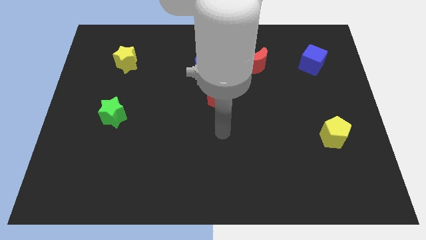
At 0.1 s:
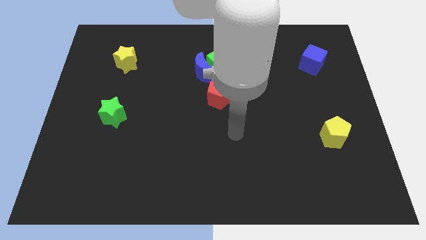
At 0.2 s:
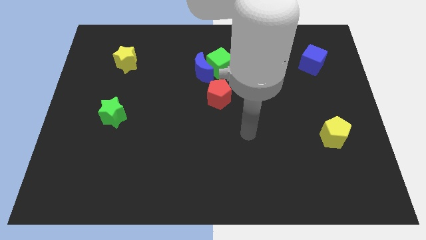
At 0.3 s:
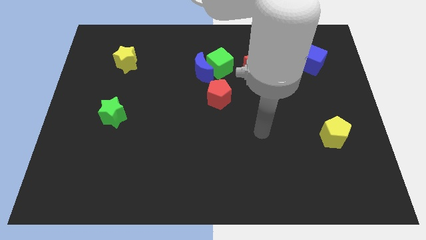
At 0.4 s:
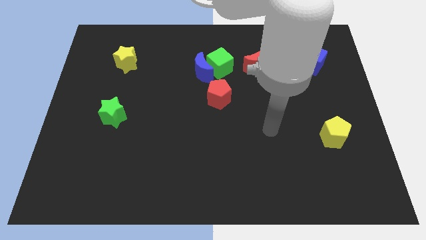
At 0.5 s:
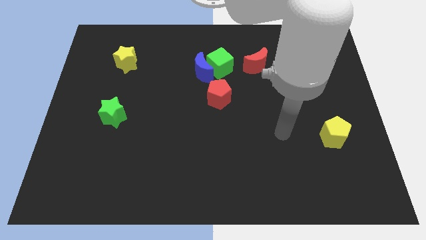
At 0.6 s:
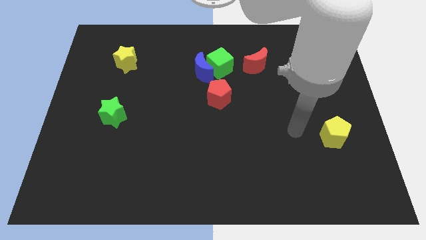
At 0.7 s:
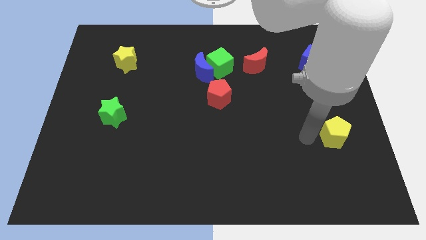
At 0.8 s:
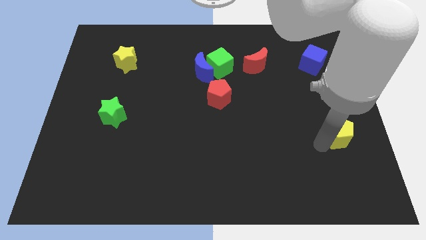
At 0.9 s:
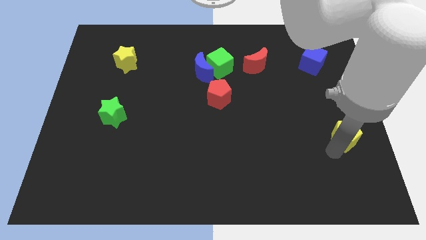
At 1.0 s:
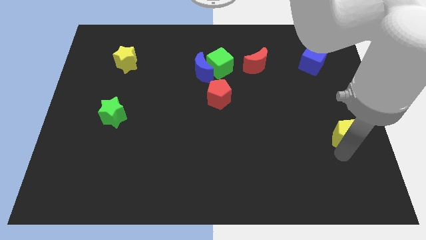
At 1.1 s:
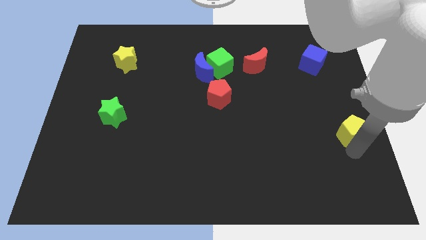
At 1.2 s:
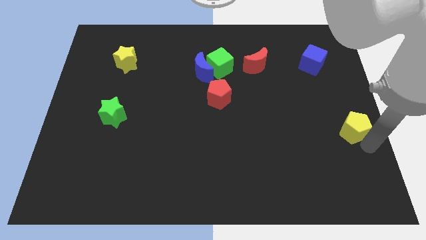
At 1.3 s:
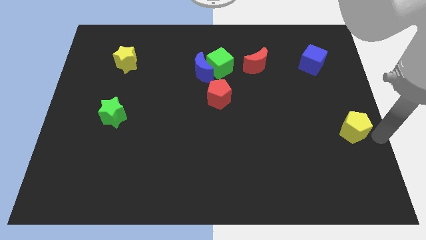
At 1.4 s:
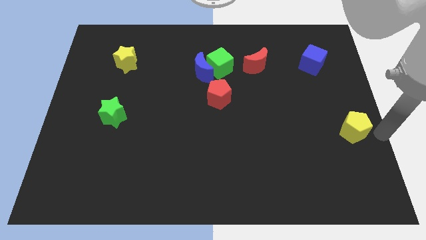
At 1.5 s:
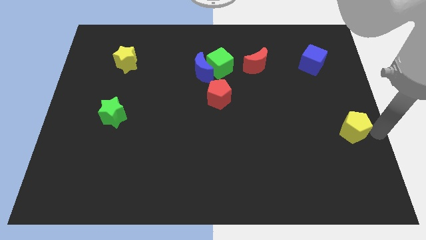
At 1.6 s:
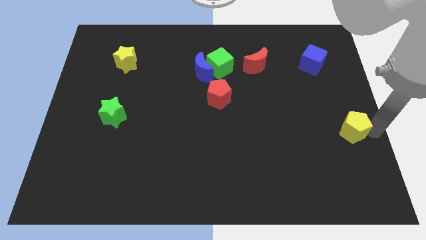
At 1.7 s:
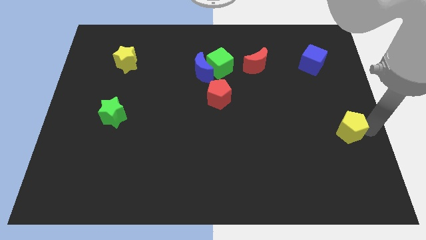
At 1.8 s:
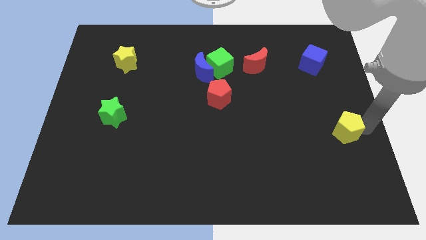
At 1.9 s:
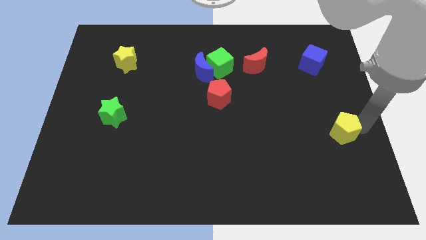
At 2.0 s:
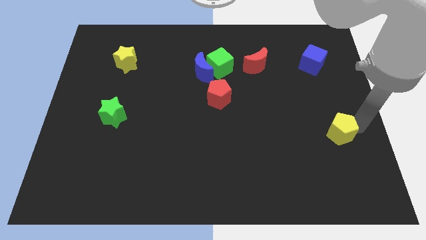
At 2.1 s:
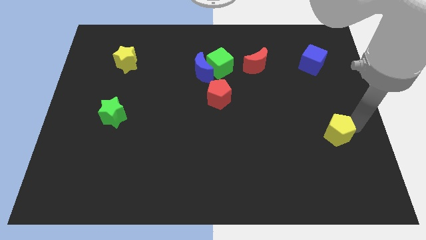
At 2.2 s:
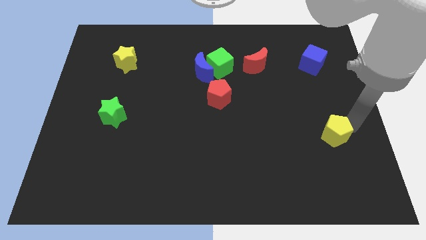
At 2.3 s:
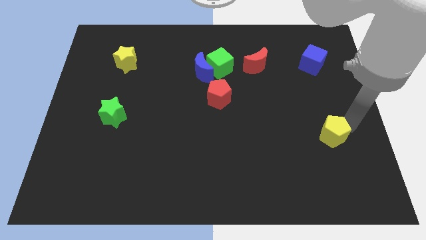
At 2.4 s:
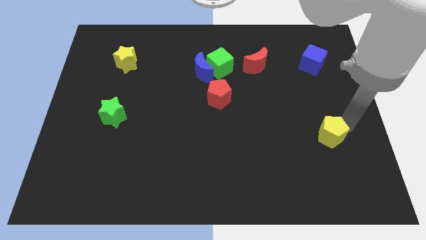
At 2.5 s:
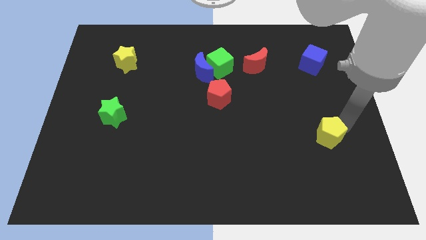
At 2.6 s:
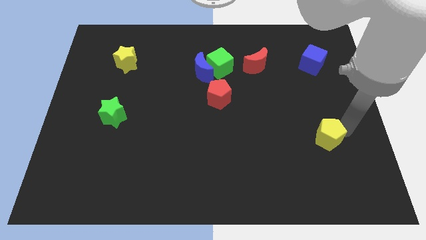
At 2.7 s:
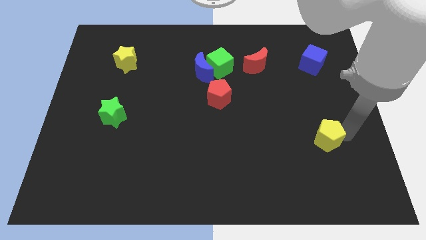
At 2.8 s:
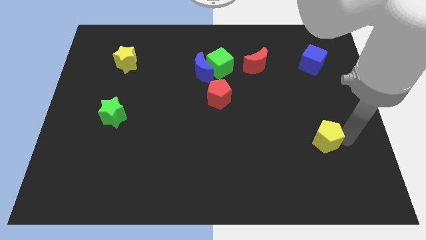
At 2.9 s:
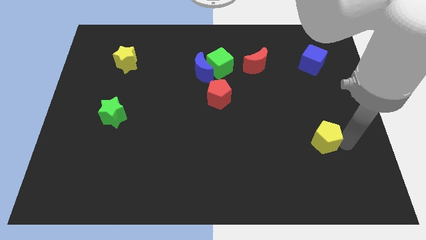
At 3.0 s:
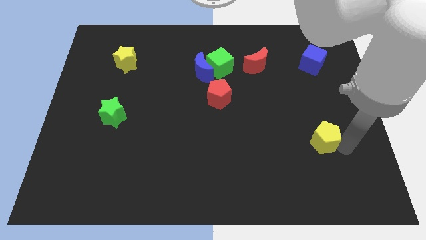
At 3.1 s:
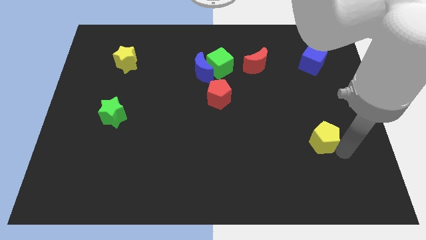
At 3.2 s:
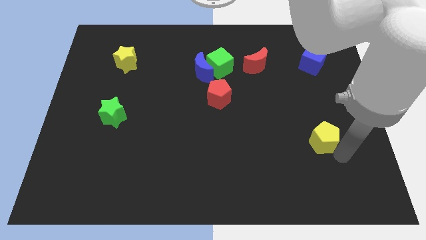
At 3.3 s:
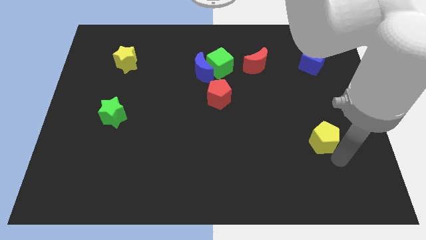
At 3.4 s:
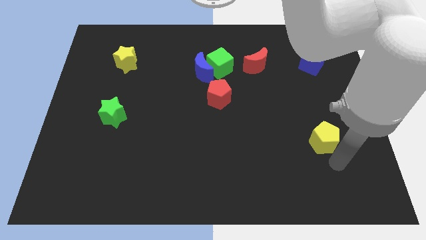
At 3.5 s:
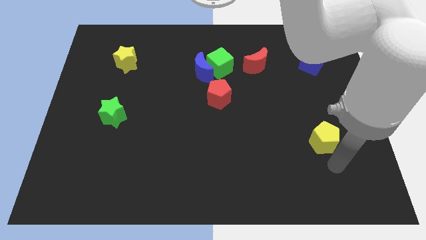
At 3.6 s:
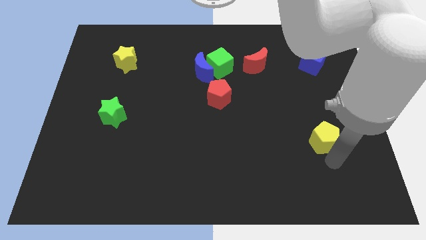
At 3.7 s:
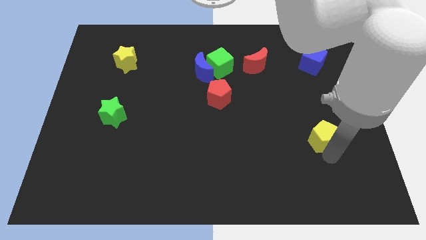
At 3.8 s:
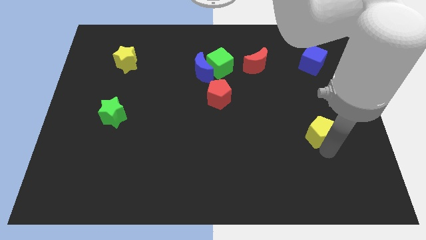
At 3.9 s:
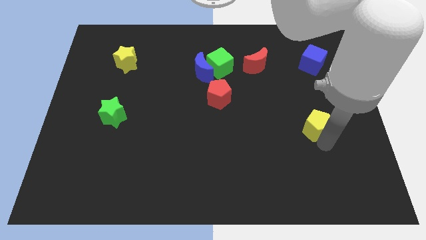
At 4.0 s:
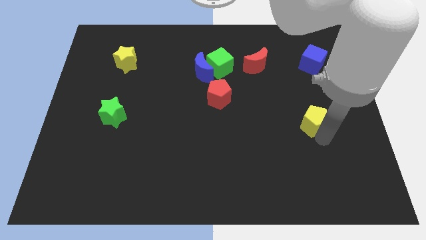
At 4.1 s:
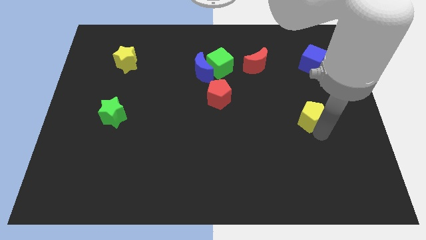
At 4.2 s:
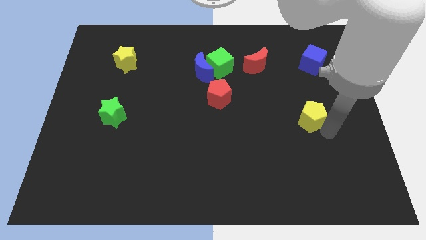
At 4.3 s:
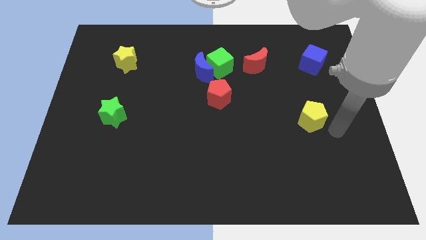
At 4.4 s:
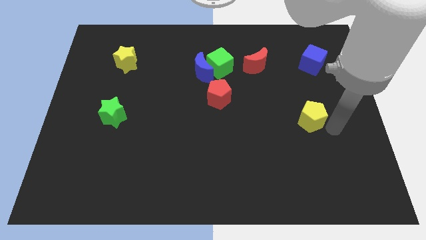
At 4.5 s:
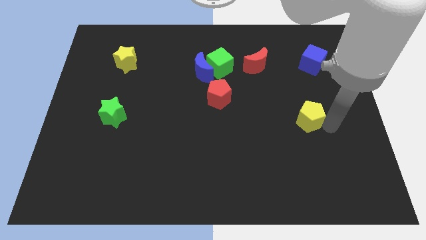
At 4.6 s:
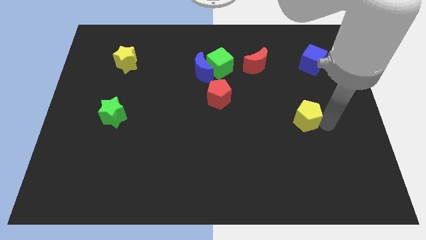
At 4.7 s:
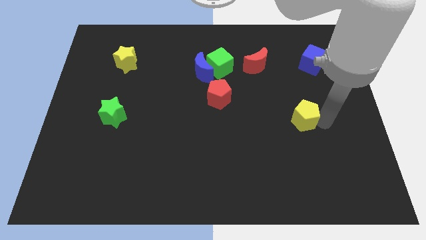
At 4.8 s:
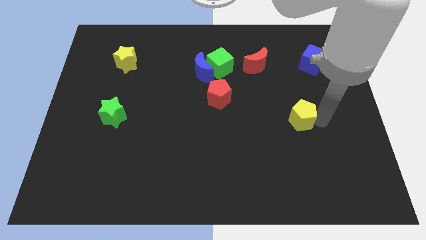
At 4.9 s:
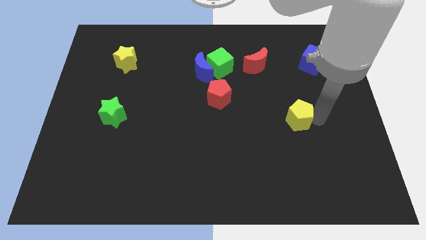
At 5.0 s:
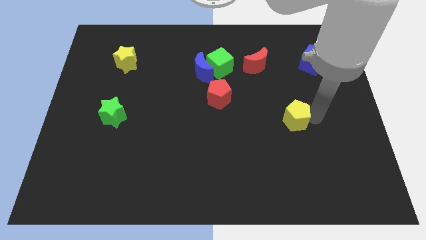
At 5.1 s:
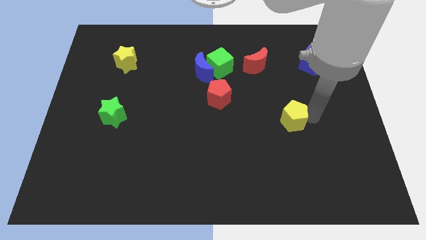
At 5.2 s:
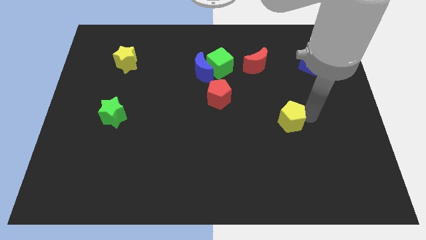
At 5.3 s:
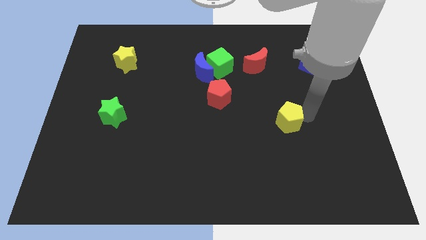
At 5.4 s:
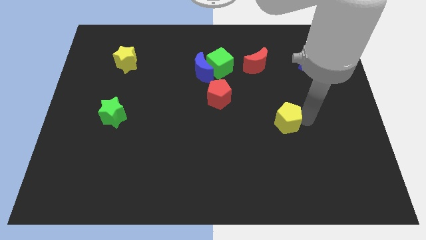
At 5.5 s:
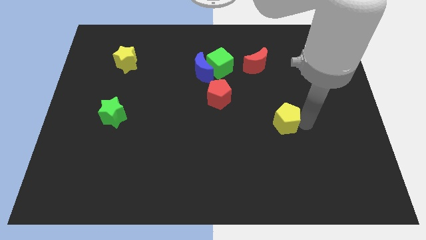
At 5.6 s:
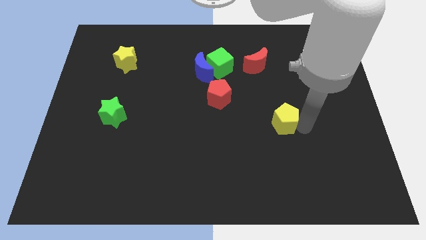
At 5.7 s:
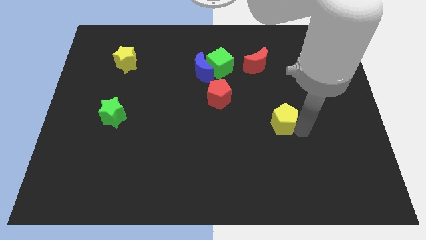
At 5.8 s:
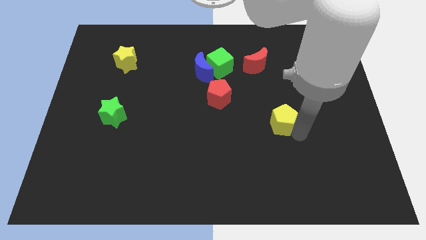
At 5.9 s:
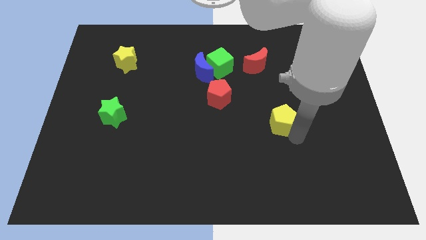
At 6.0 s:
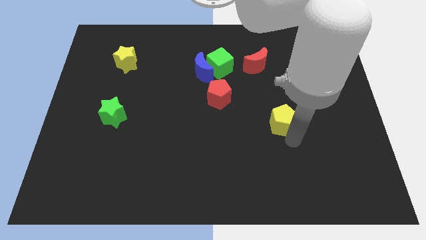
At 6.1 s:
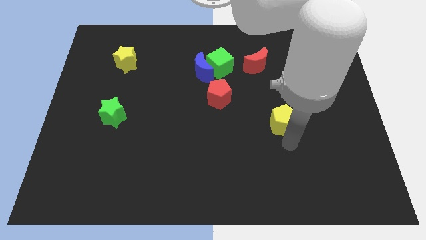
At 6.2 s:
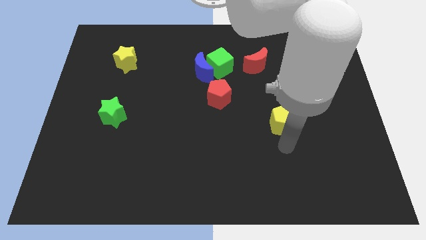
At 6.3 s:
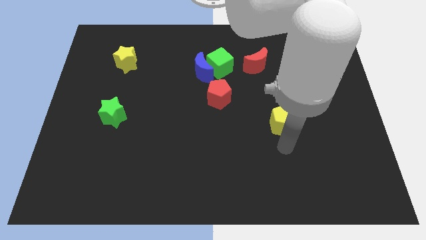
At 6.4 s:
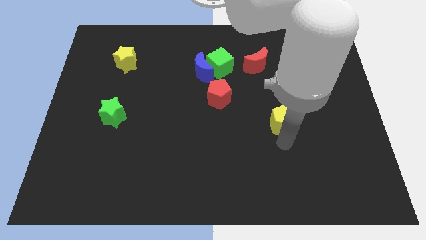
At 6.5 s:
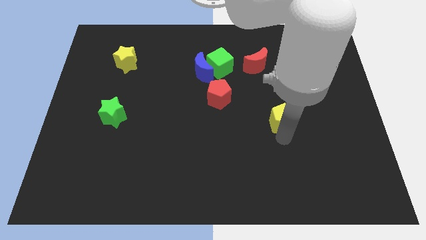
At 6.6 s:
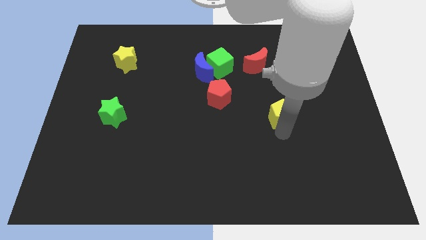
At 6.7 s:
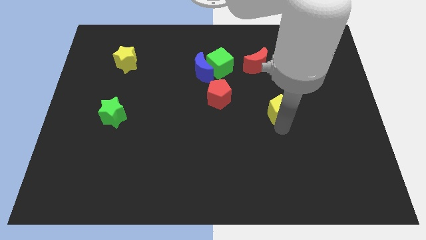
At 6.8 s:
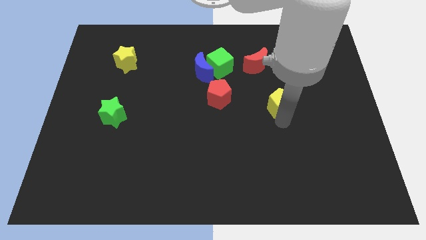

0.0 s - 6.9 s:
push the yellow pentagon to the right of the red pentagon

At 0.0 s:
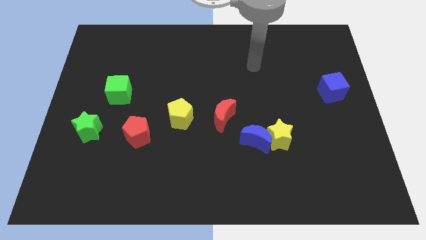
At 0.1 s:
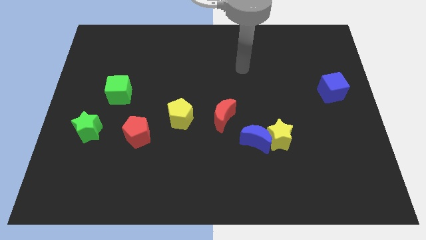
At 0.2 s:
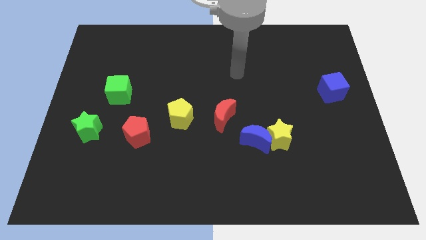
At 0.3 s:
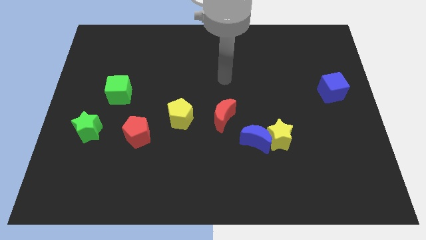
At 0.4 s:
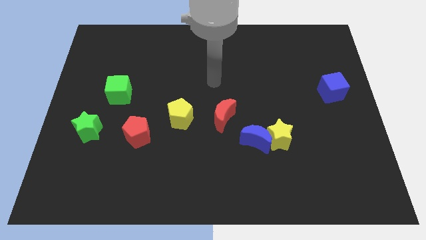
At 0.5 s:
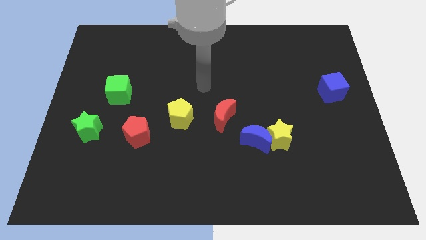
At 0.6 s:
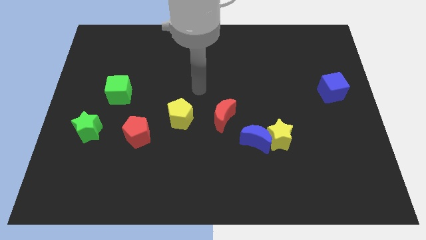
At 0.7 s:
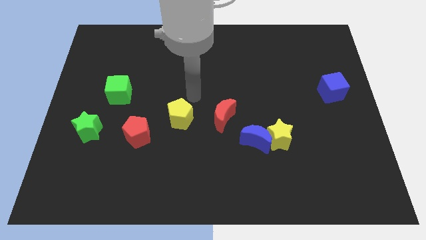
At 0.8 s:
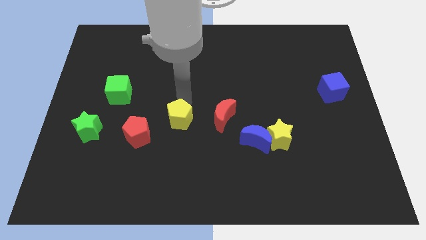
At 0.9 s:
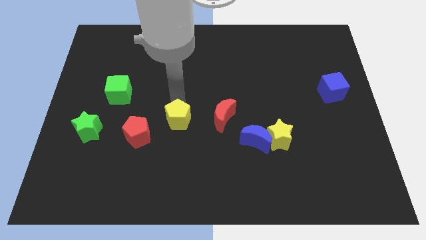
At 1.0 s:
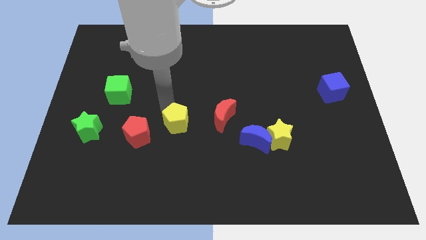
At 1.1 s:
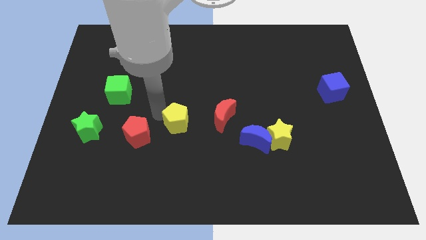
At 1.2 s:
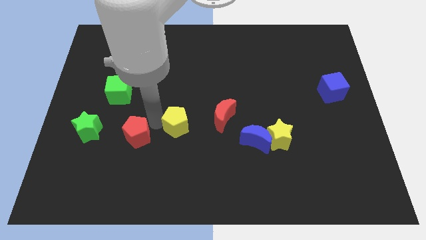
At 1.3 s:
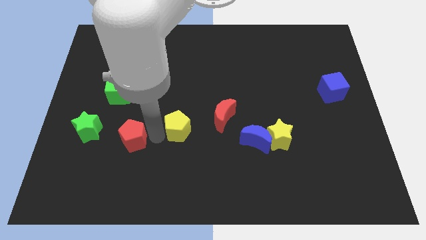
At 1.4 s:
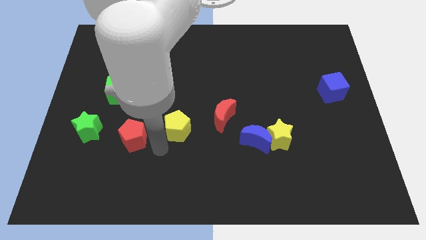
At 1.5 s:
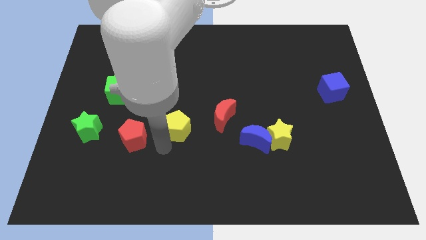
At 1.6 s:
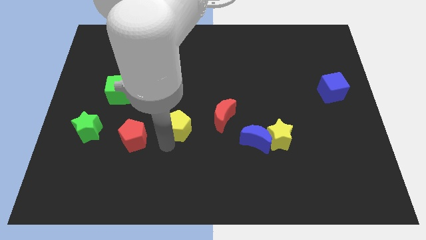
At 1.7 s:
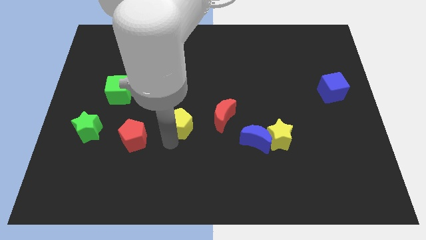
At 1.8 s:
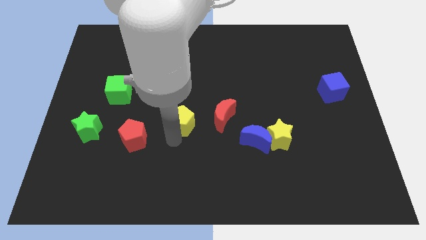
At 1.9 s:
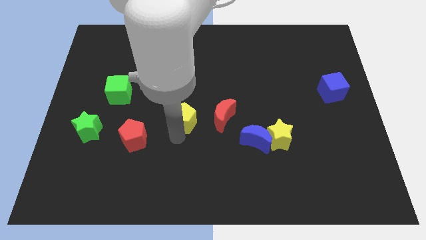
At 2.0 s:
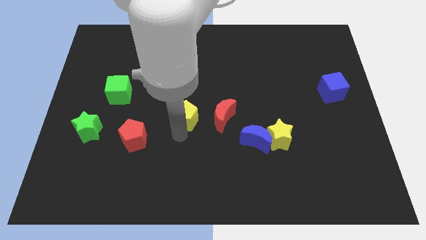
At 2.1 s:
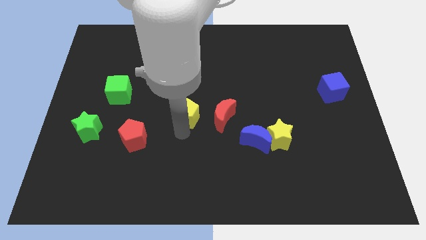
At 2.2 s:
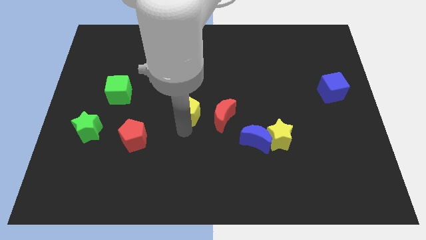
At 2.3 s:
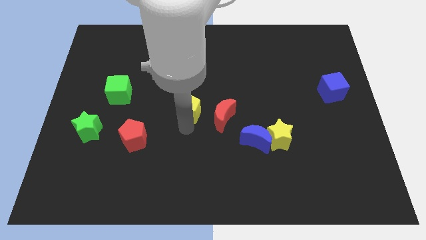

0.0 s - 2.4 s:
push the yellow pentagon diagonally up and to the left of the red moon
